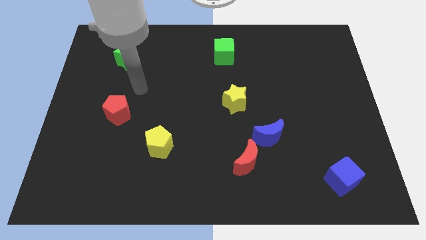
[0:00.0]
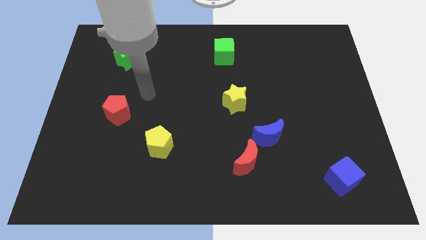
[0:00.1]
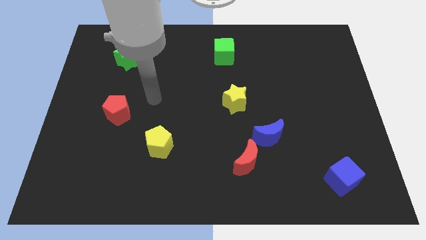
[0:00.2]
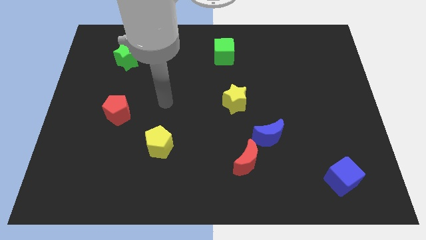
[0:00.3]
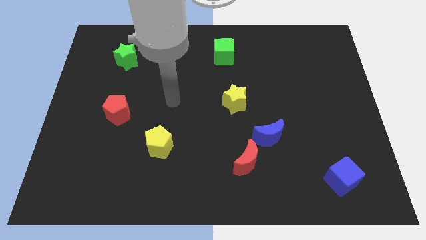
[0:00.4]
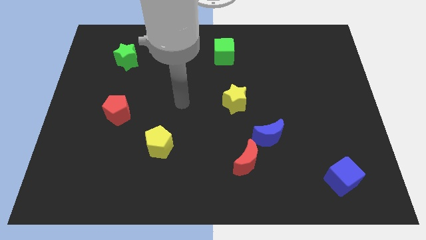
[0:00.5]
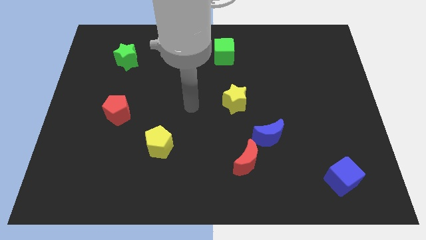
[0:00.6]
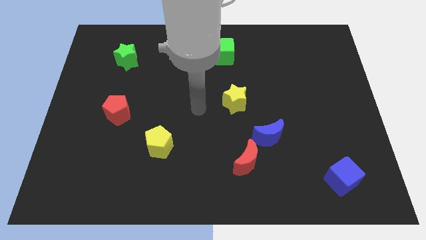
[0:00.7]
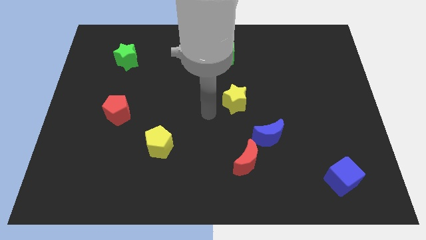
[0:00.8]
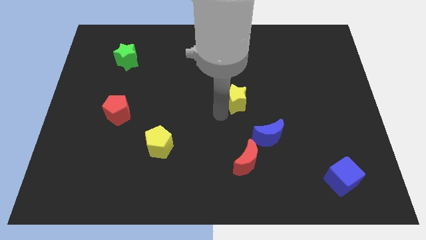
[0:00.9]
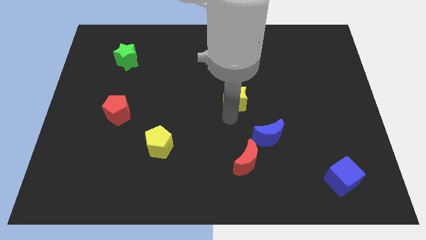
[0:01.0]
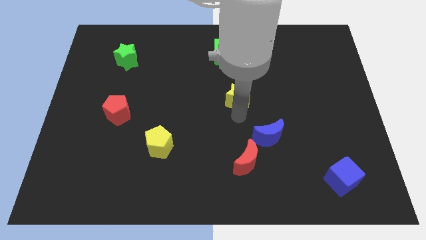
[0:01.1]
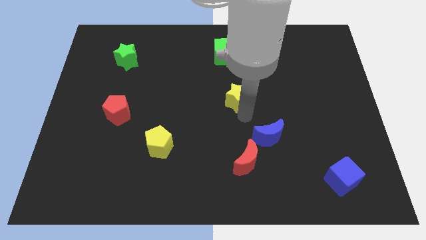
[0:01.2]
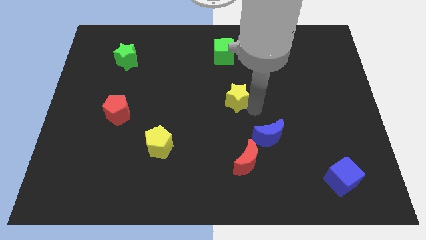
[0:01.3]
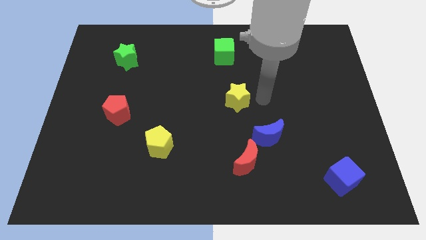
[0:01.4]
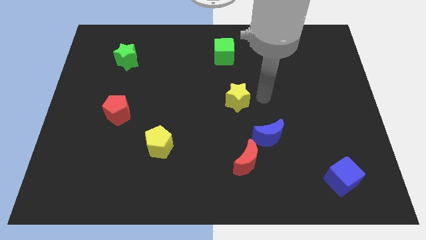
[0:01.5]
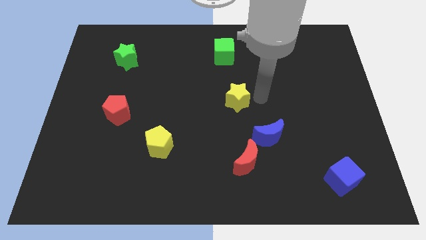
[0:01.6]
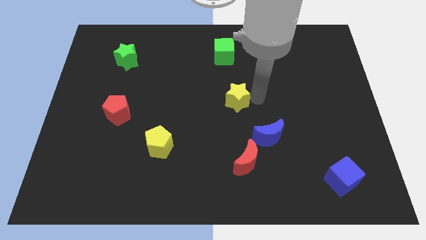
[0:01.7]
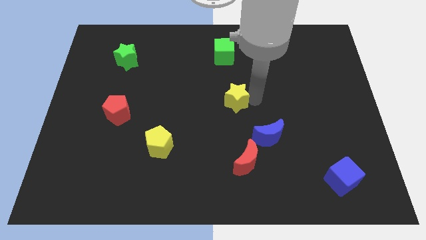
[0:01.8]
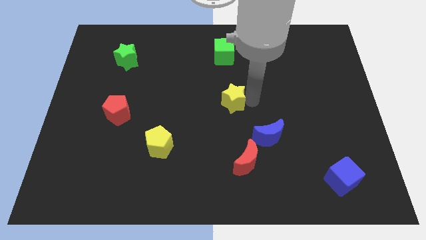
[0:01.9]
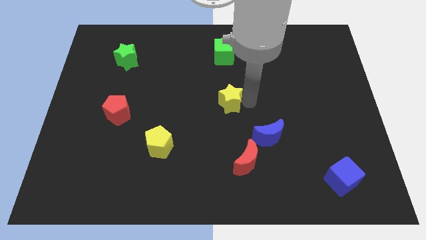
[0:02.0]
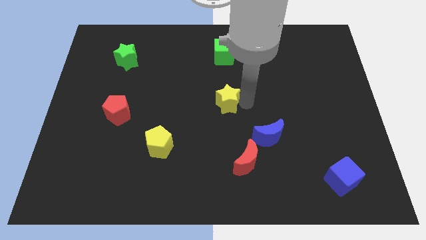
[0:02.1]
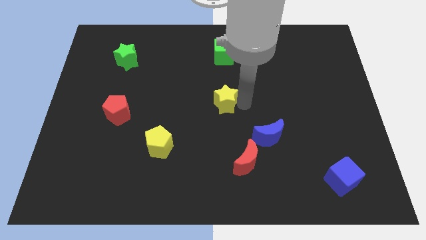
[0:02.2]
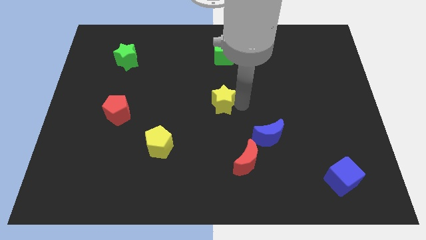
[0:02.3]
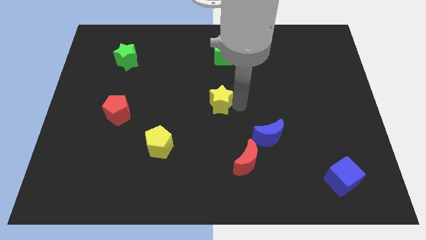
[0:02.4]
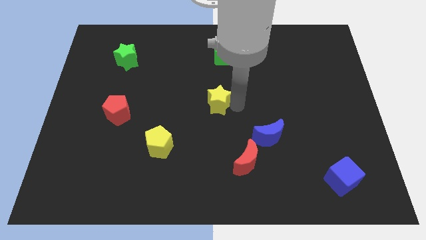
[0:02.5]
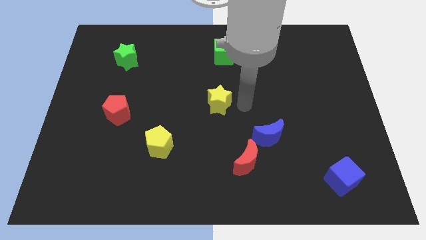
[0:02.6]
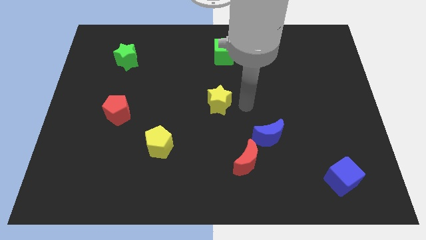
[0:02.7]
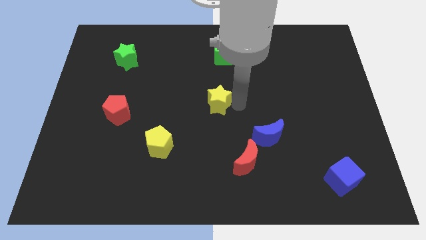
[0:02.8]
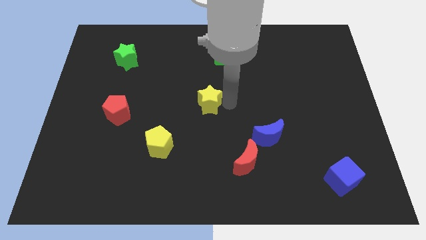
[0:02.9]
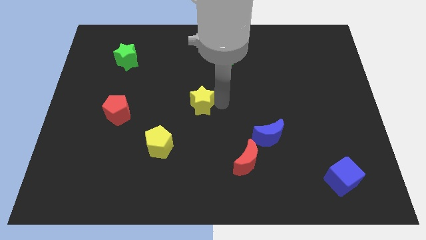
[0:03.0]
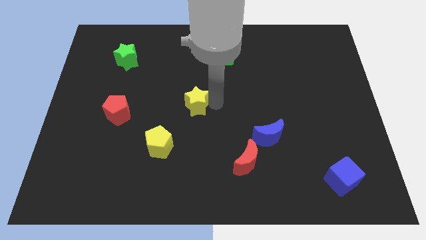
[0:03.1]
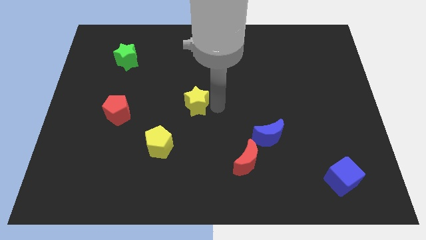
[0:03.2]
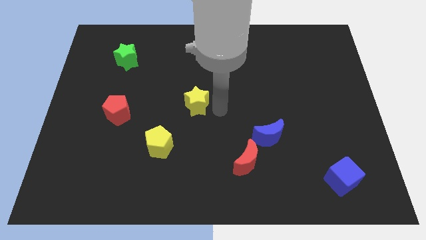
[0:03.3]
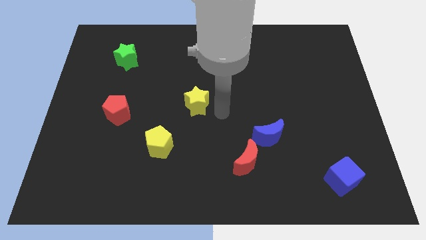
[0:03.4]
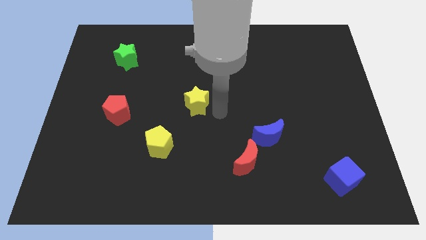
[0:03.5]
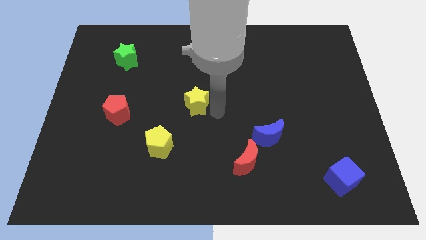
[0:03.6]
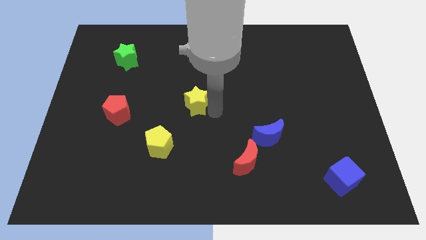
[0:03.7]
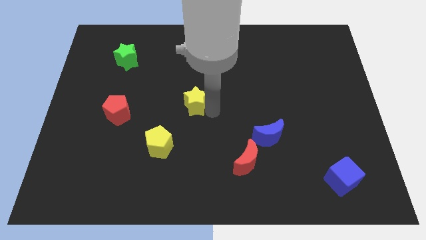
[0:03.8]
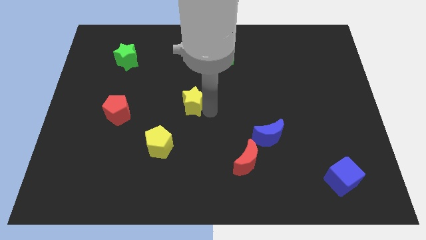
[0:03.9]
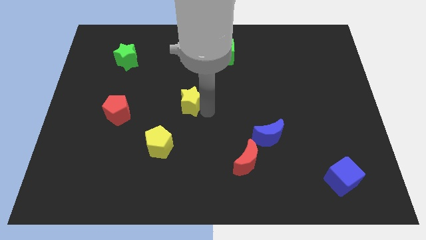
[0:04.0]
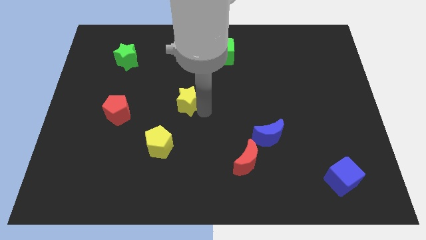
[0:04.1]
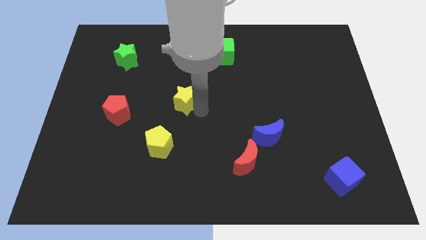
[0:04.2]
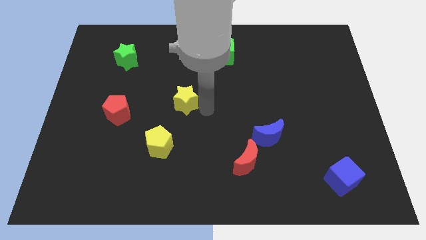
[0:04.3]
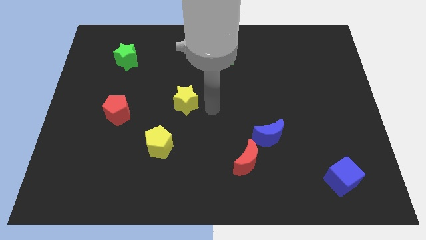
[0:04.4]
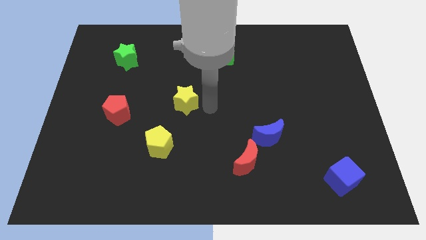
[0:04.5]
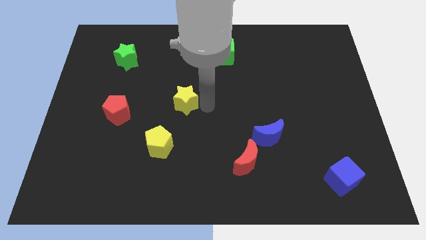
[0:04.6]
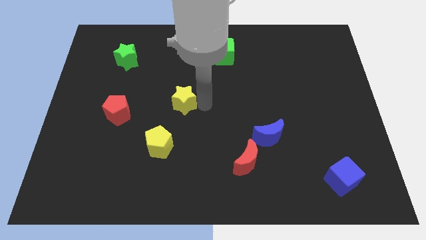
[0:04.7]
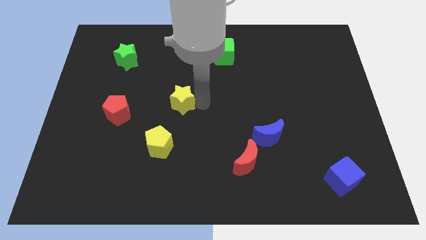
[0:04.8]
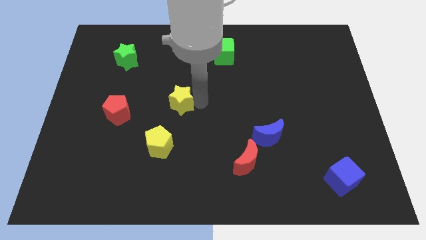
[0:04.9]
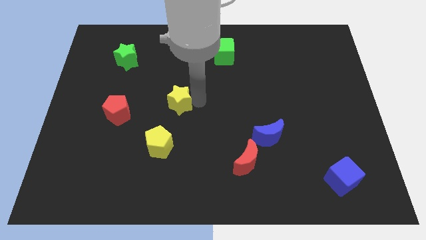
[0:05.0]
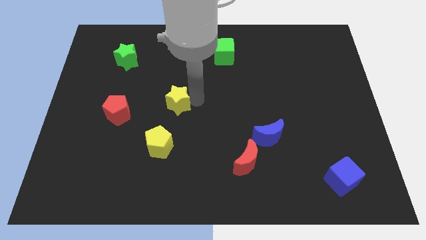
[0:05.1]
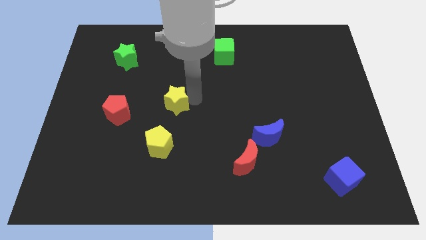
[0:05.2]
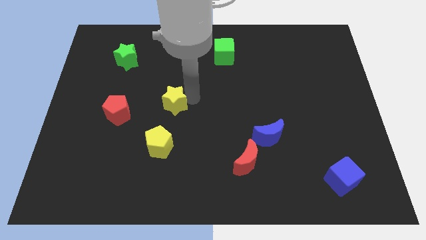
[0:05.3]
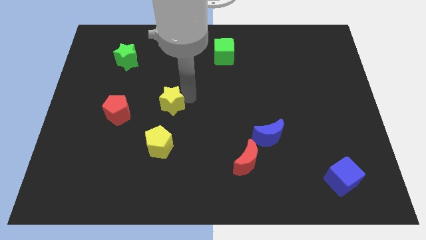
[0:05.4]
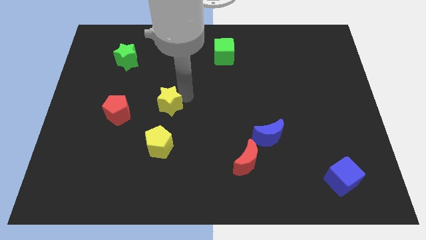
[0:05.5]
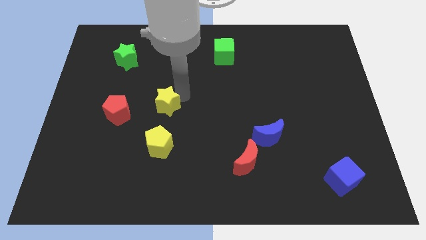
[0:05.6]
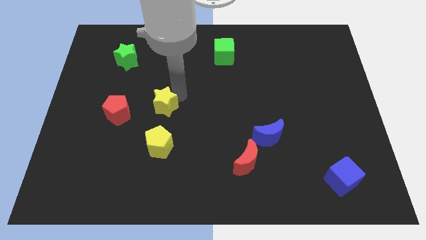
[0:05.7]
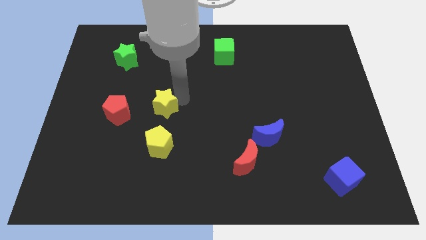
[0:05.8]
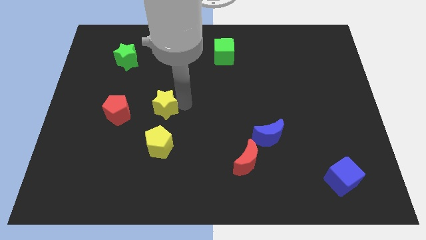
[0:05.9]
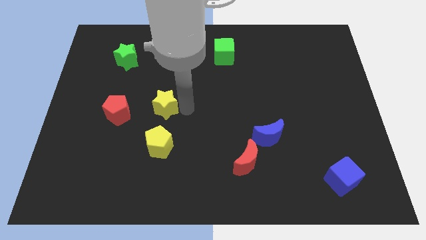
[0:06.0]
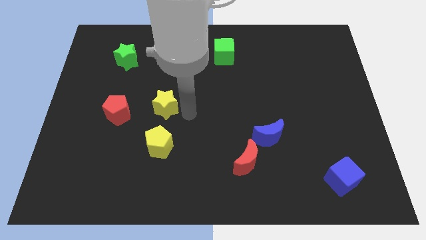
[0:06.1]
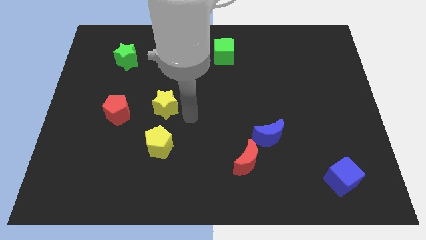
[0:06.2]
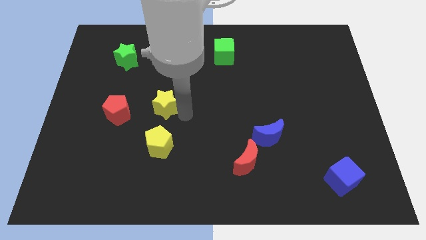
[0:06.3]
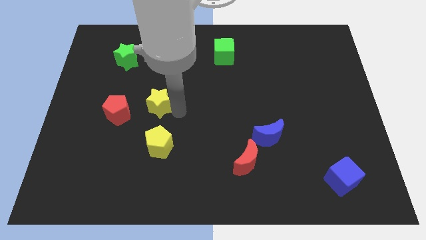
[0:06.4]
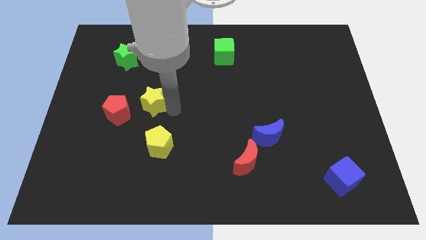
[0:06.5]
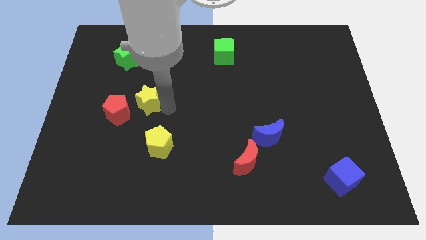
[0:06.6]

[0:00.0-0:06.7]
move the yellow star left

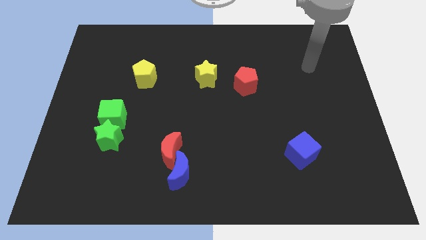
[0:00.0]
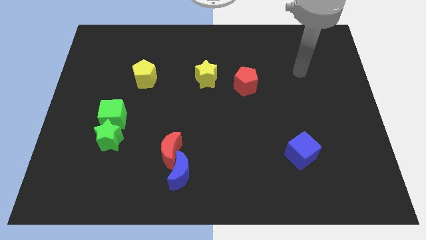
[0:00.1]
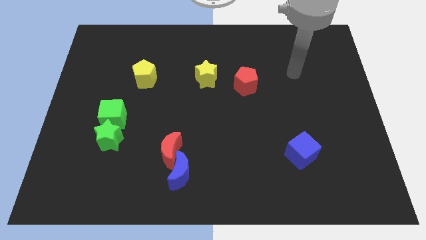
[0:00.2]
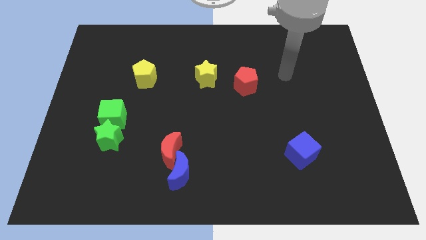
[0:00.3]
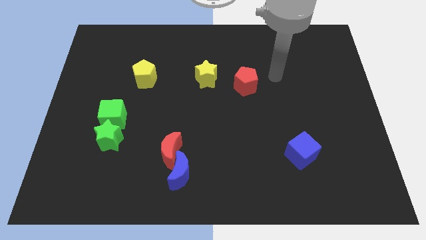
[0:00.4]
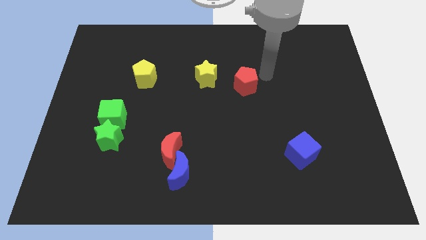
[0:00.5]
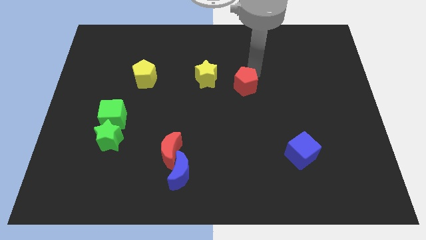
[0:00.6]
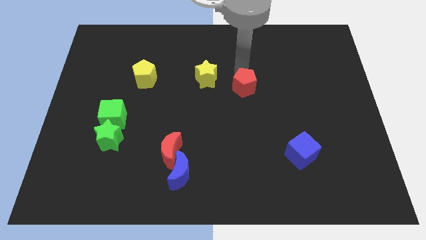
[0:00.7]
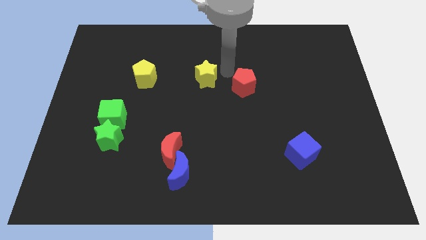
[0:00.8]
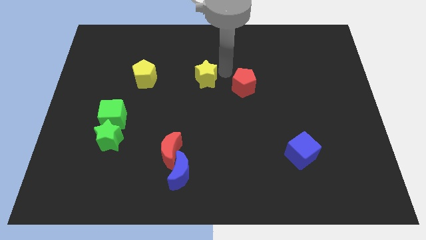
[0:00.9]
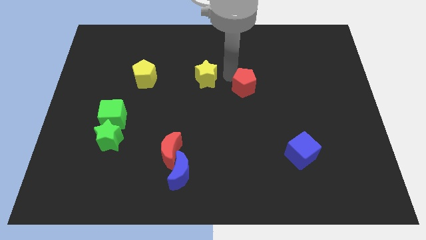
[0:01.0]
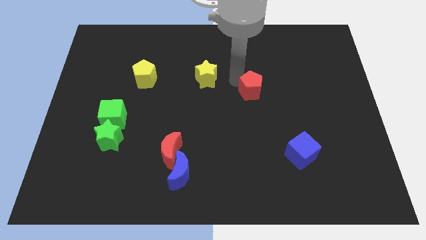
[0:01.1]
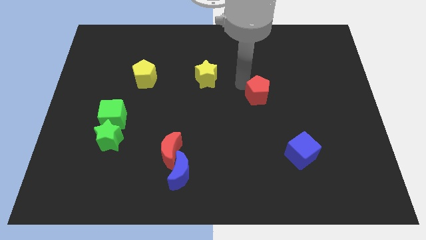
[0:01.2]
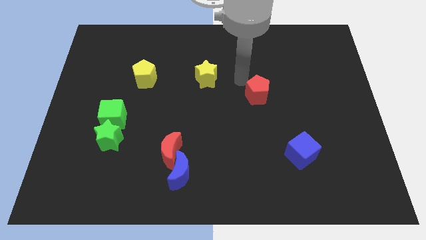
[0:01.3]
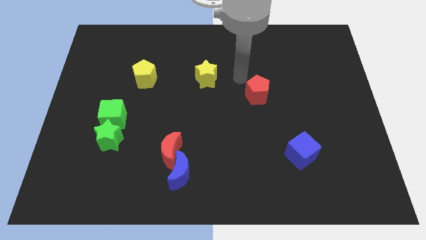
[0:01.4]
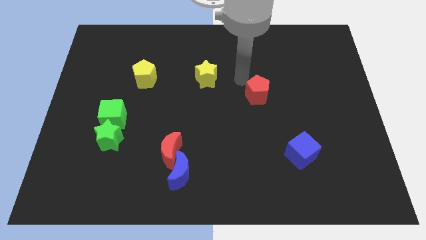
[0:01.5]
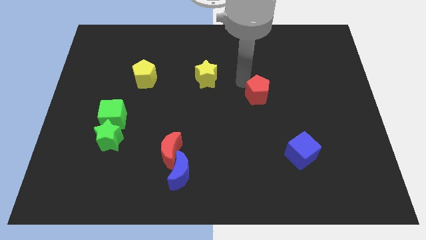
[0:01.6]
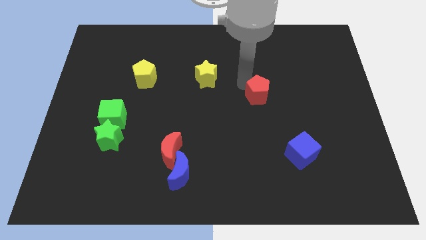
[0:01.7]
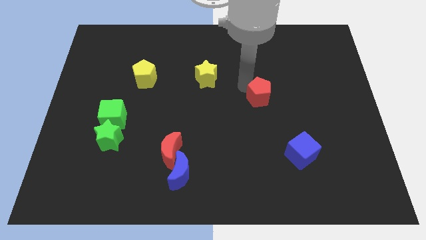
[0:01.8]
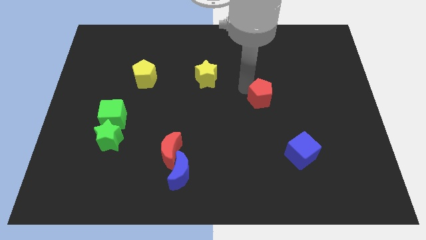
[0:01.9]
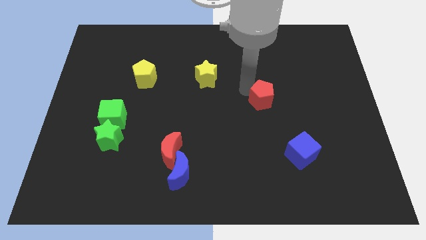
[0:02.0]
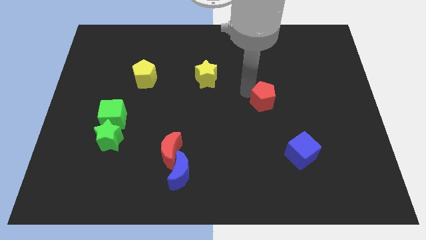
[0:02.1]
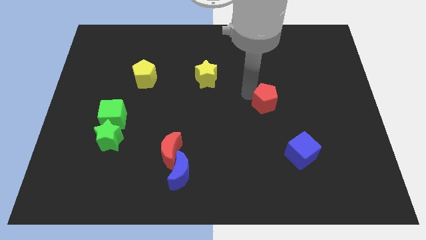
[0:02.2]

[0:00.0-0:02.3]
move the red pentagon a little downwards and right
